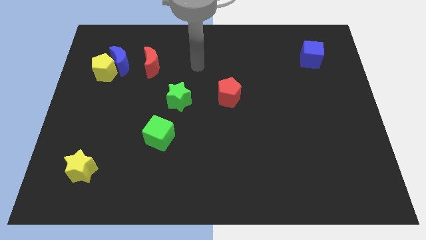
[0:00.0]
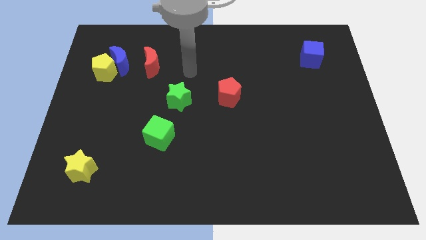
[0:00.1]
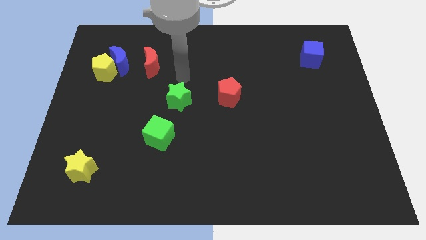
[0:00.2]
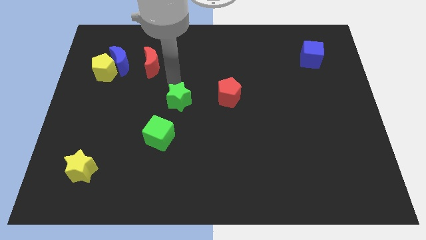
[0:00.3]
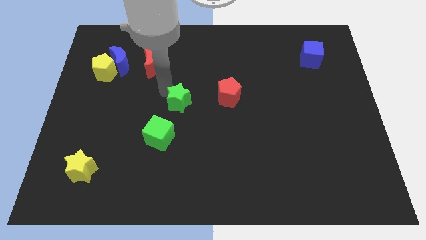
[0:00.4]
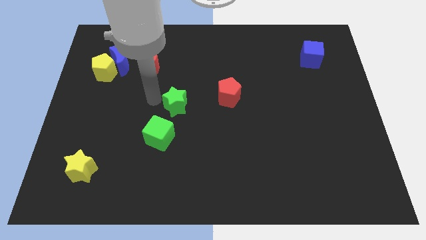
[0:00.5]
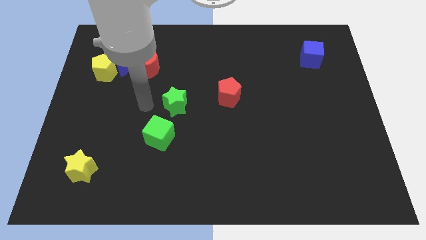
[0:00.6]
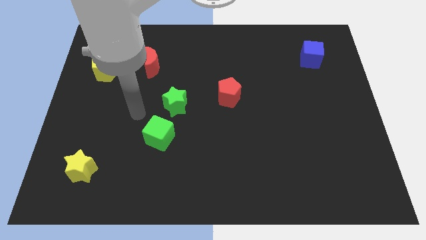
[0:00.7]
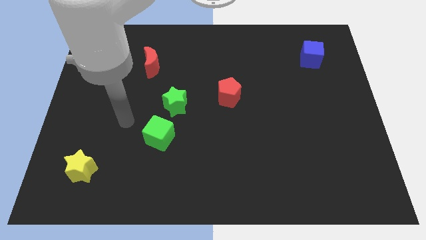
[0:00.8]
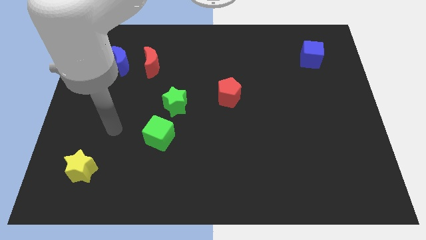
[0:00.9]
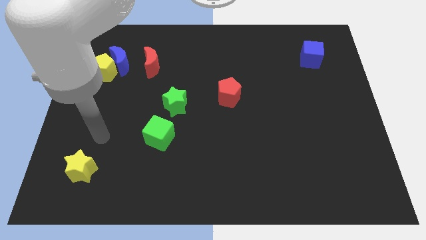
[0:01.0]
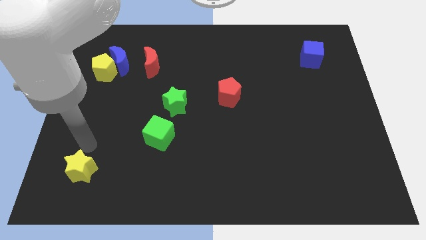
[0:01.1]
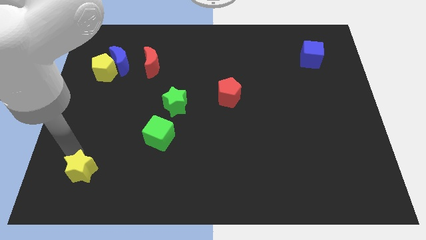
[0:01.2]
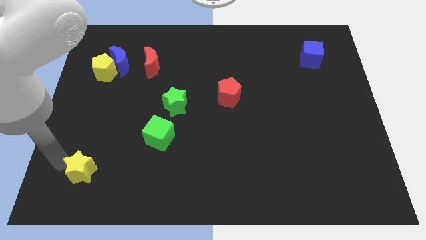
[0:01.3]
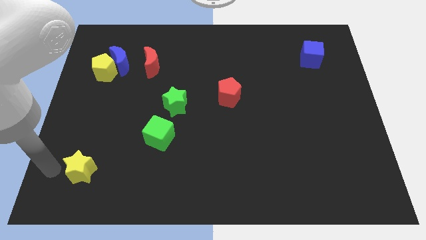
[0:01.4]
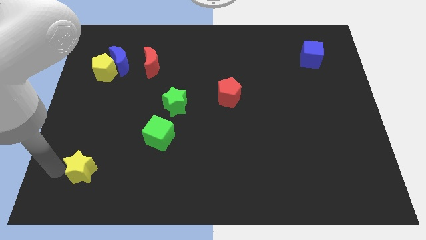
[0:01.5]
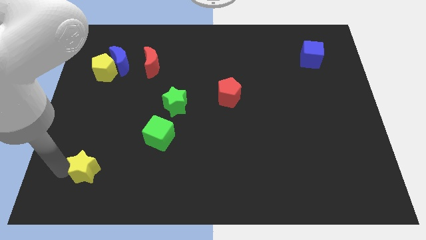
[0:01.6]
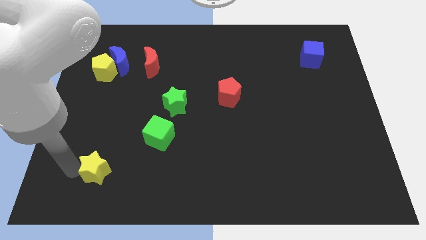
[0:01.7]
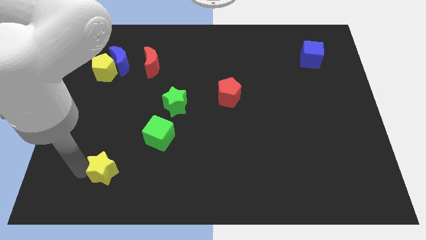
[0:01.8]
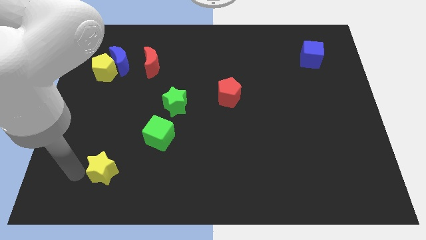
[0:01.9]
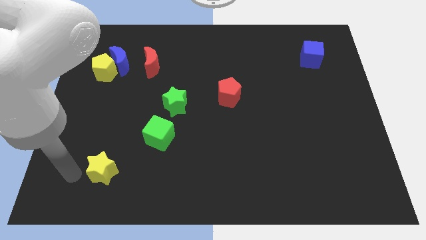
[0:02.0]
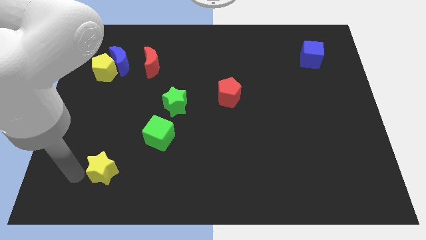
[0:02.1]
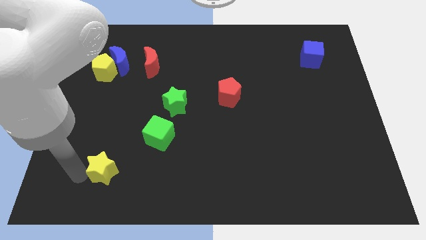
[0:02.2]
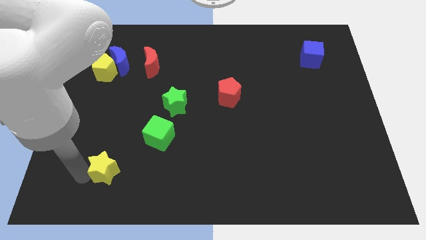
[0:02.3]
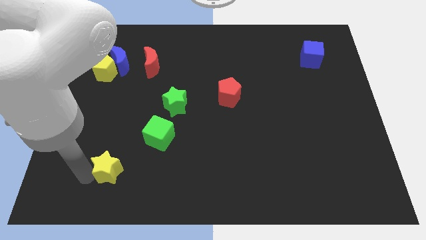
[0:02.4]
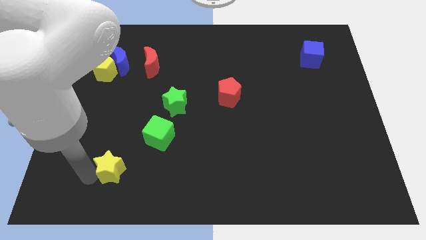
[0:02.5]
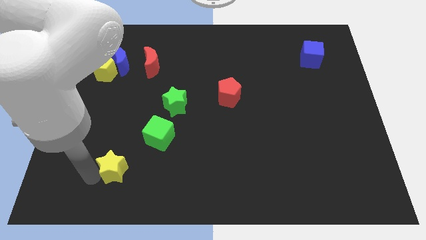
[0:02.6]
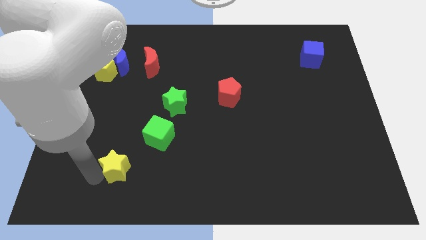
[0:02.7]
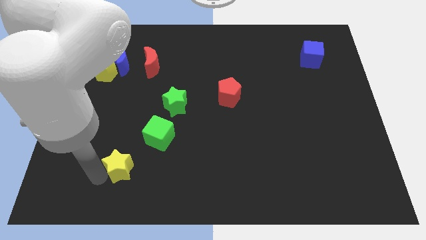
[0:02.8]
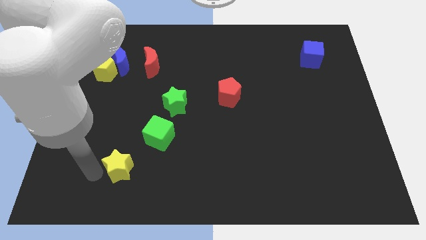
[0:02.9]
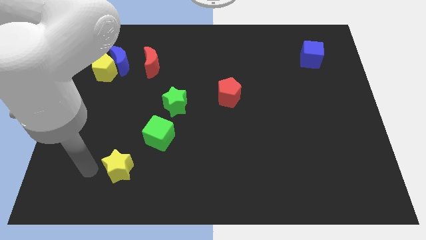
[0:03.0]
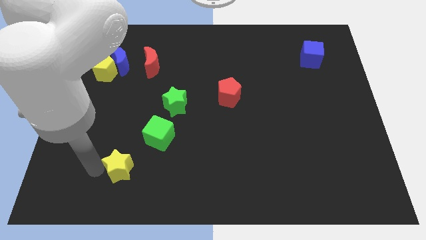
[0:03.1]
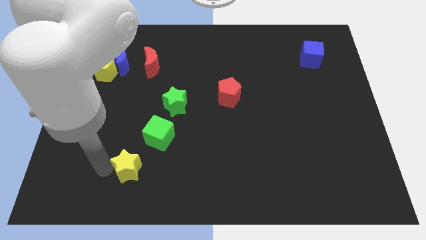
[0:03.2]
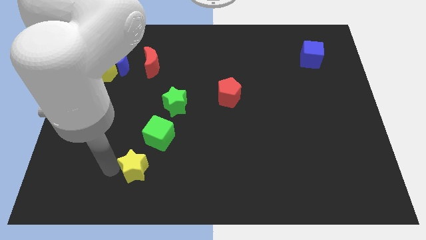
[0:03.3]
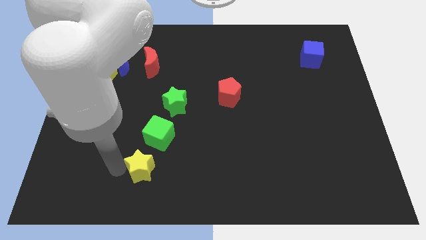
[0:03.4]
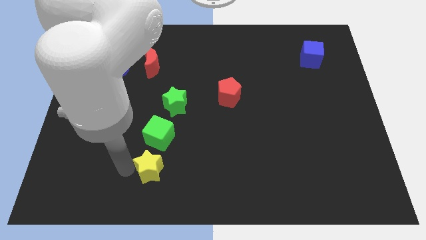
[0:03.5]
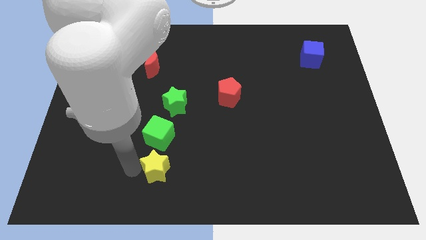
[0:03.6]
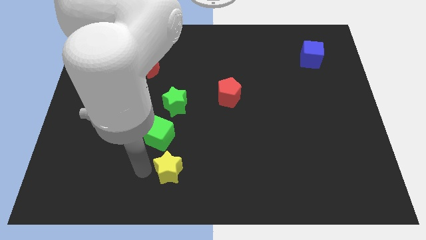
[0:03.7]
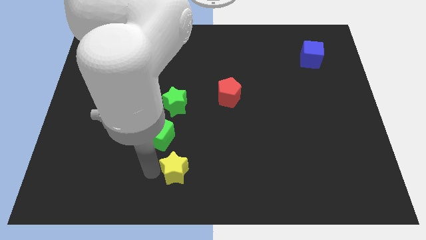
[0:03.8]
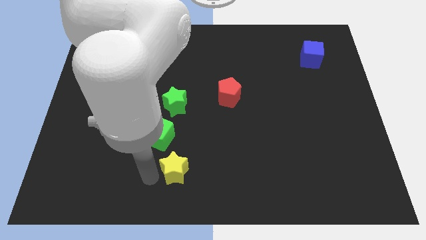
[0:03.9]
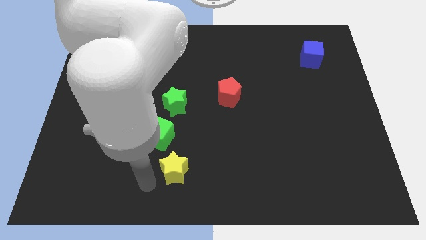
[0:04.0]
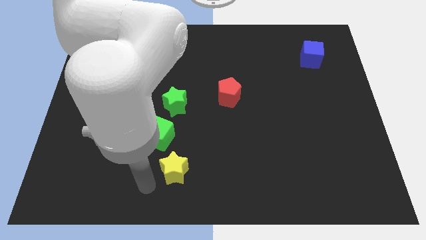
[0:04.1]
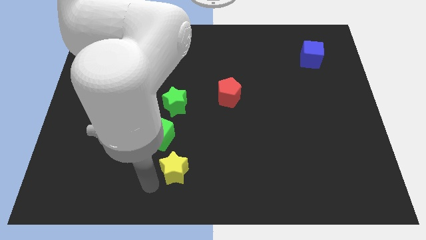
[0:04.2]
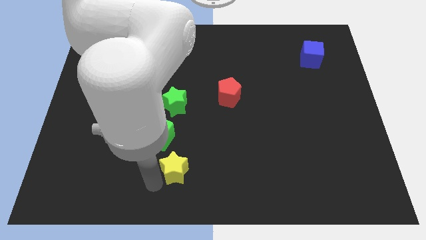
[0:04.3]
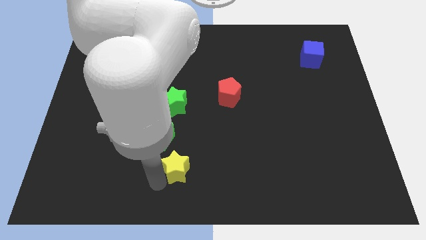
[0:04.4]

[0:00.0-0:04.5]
push the yellow star to the right

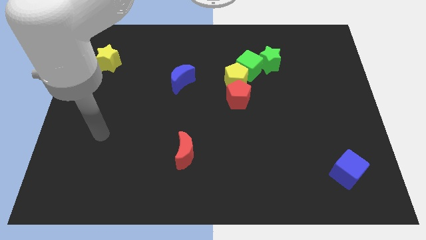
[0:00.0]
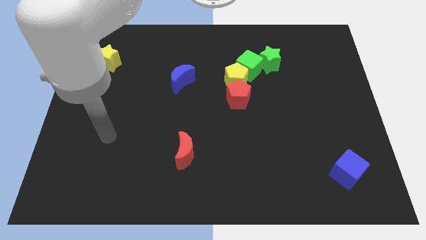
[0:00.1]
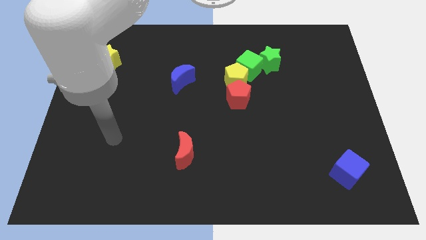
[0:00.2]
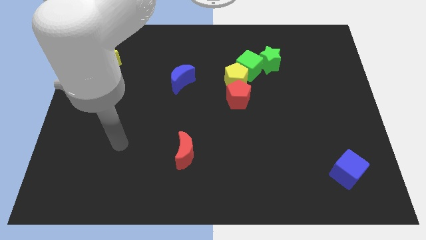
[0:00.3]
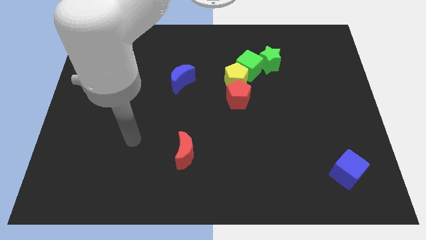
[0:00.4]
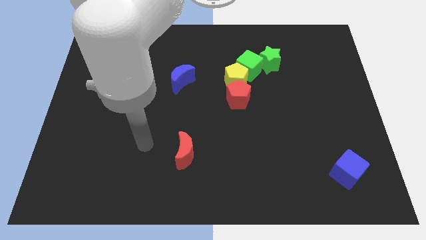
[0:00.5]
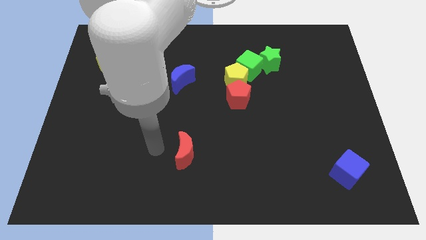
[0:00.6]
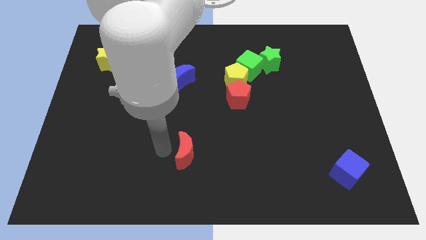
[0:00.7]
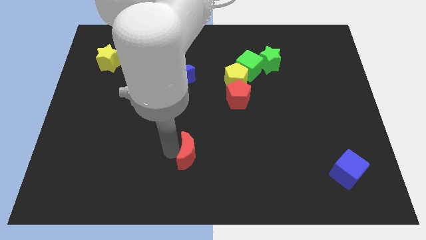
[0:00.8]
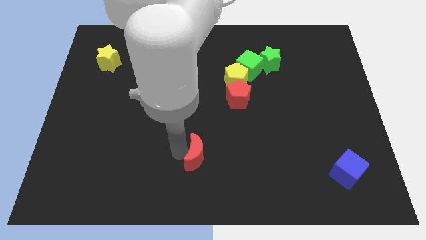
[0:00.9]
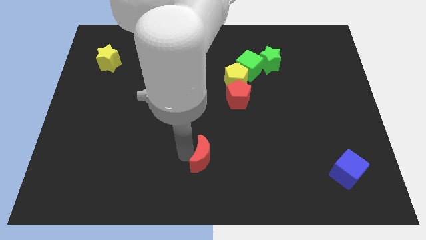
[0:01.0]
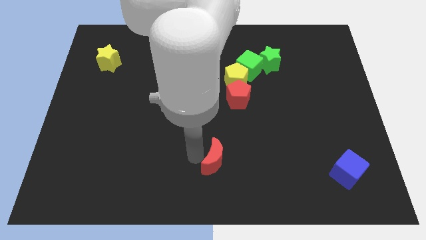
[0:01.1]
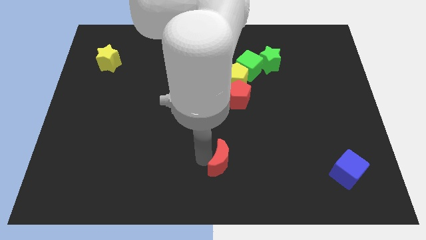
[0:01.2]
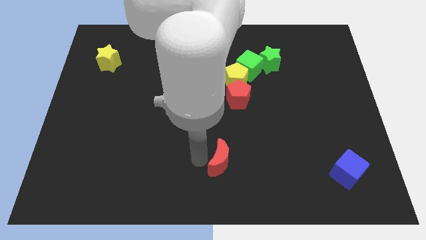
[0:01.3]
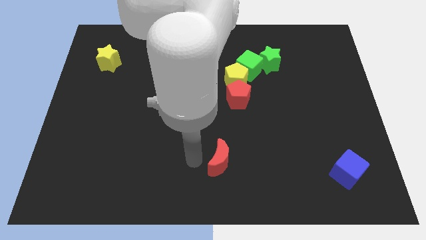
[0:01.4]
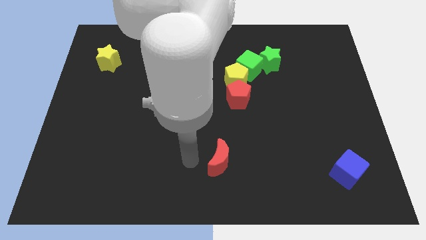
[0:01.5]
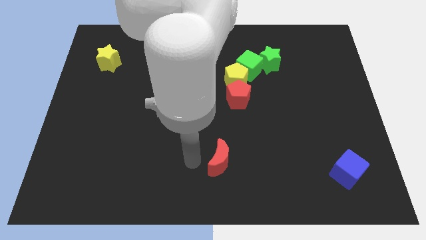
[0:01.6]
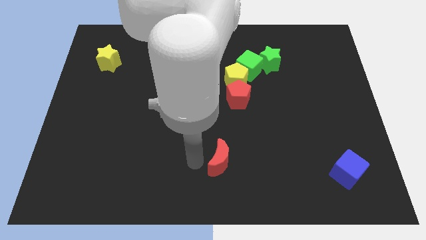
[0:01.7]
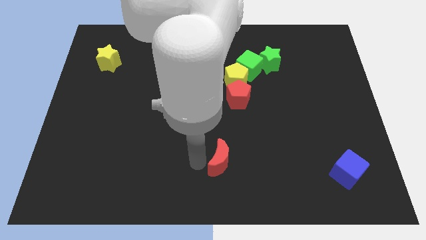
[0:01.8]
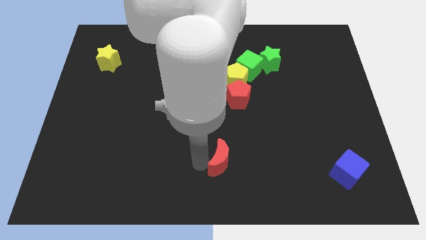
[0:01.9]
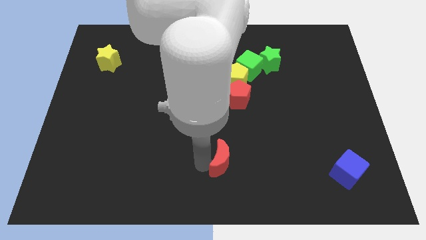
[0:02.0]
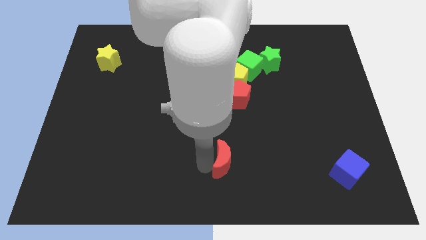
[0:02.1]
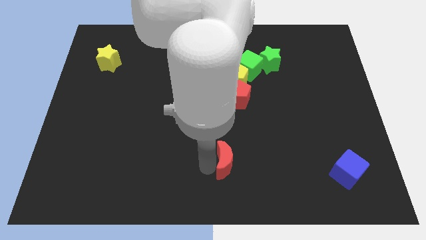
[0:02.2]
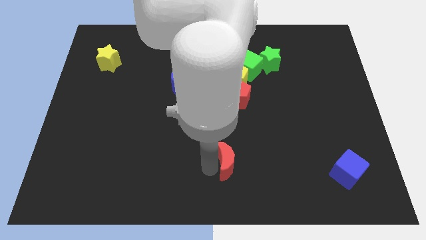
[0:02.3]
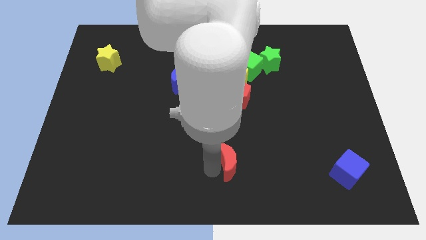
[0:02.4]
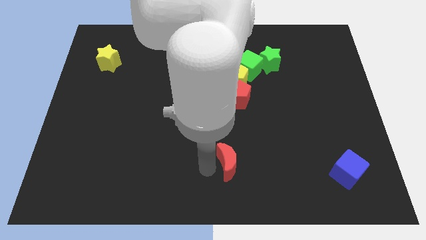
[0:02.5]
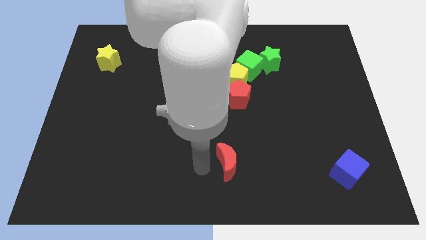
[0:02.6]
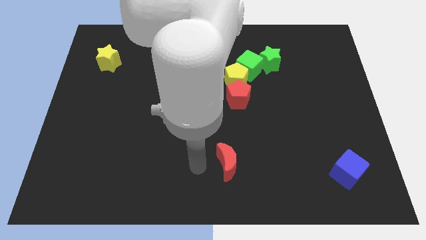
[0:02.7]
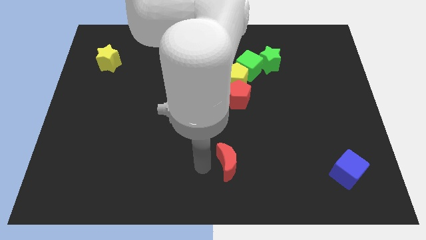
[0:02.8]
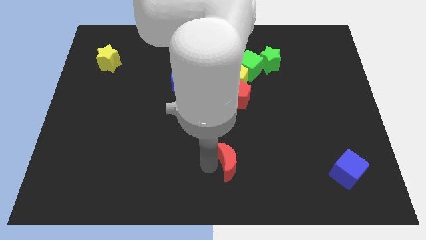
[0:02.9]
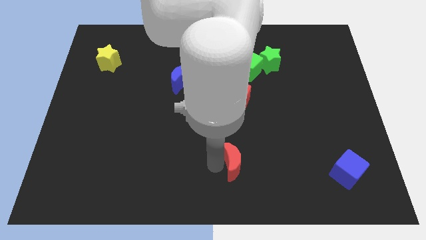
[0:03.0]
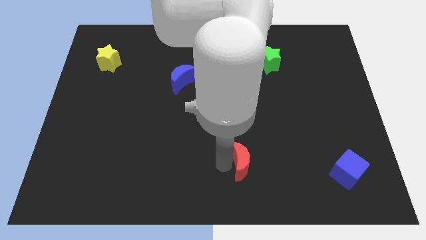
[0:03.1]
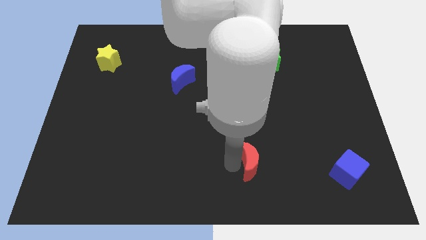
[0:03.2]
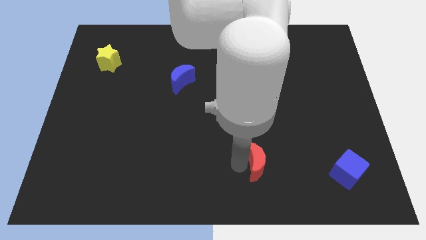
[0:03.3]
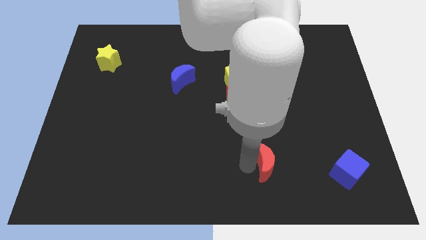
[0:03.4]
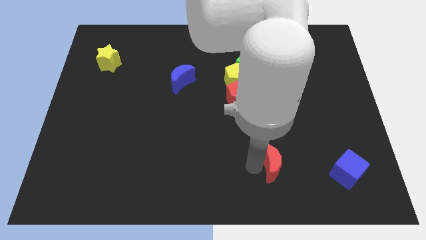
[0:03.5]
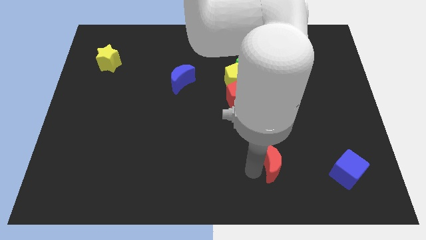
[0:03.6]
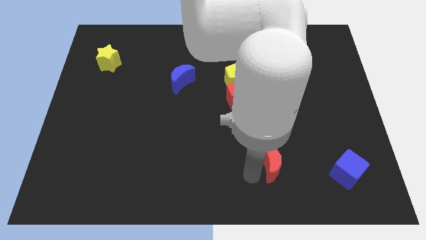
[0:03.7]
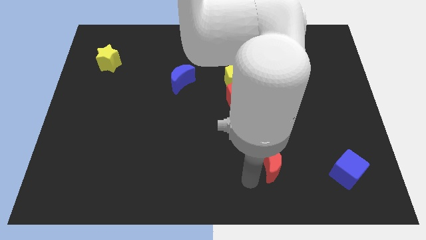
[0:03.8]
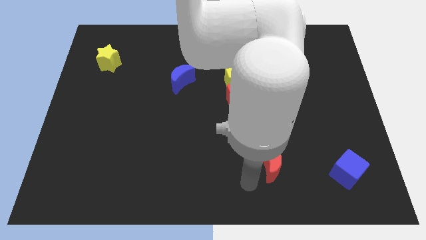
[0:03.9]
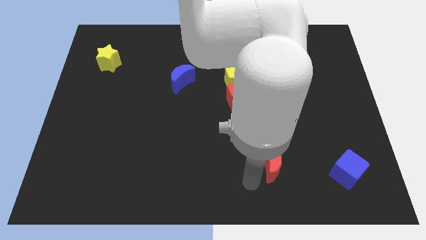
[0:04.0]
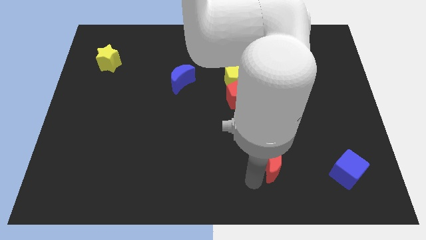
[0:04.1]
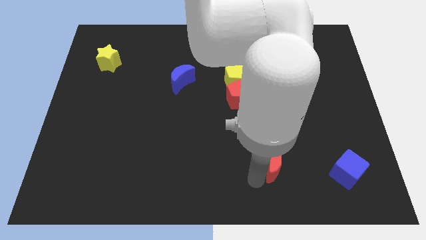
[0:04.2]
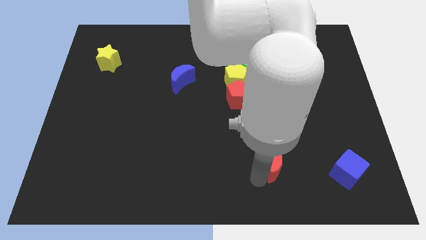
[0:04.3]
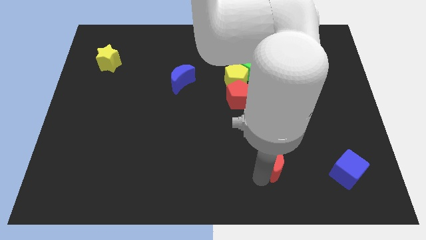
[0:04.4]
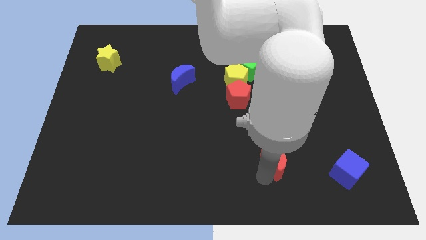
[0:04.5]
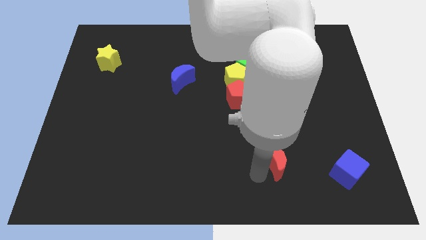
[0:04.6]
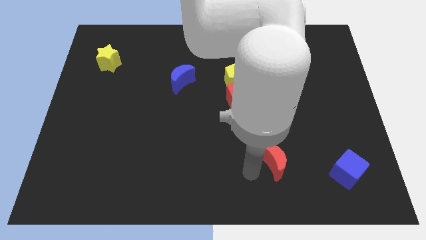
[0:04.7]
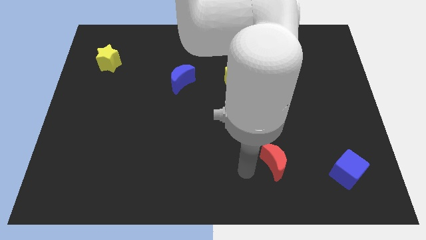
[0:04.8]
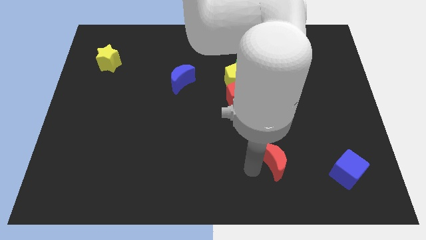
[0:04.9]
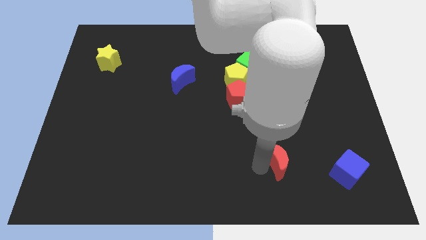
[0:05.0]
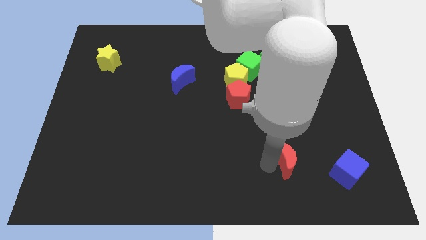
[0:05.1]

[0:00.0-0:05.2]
move the red moon to the right
